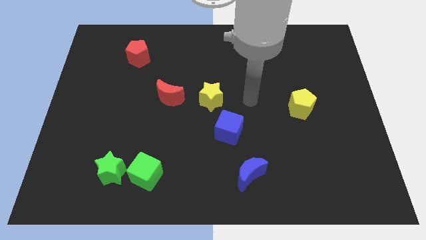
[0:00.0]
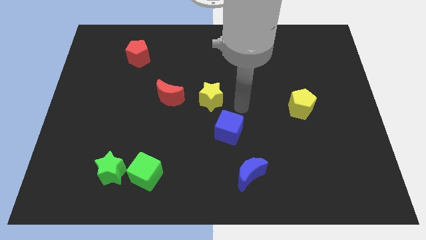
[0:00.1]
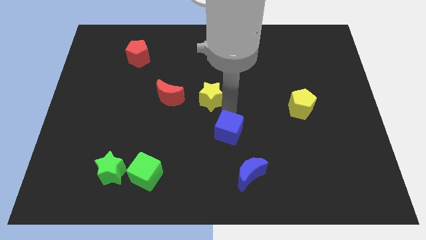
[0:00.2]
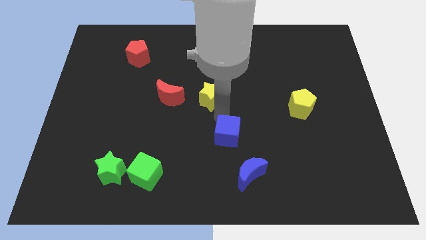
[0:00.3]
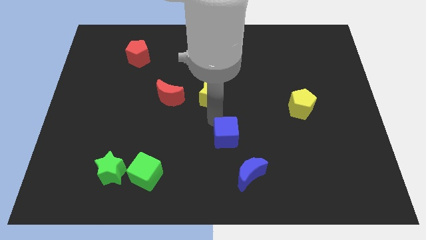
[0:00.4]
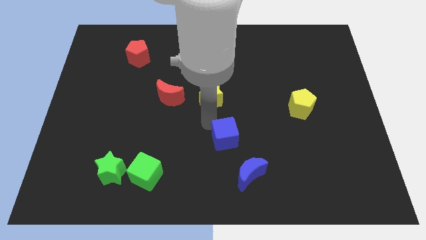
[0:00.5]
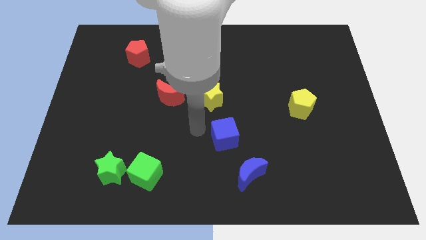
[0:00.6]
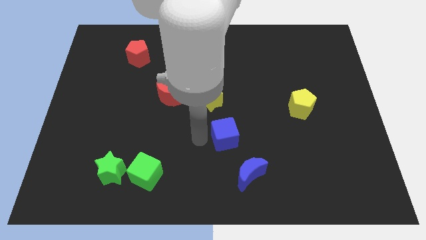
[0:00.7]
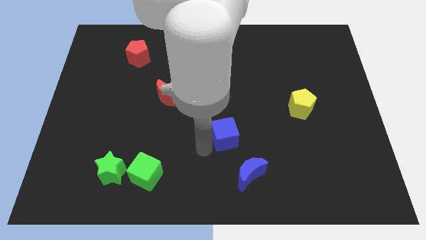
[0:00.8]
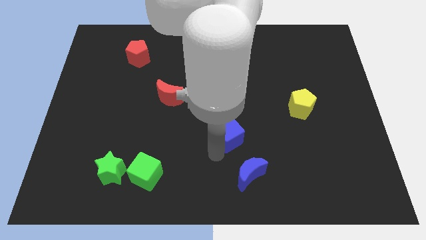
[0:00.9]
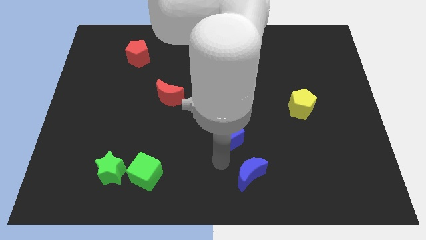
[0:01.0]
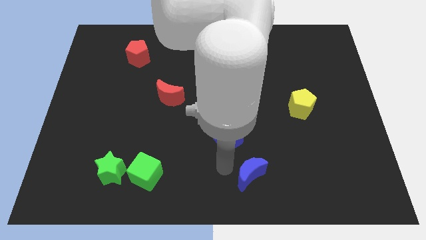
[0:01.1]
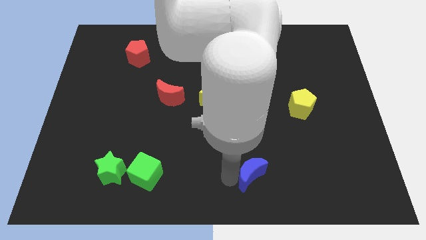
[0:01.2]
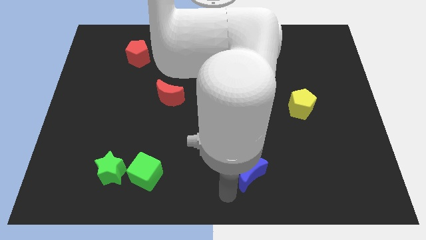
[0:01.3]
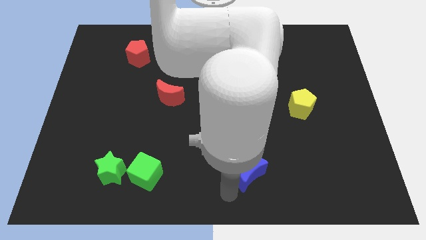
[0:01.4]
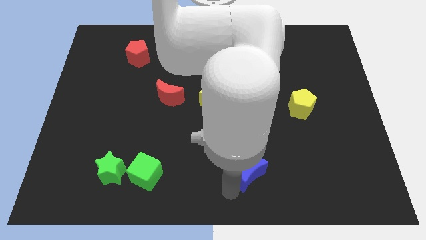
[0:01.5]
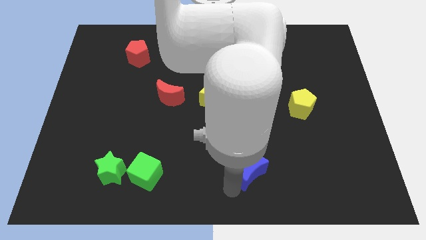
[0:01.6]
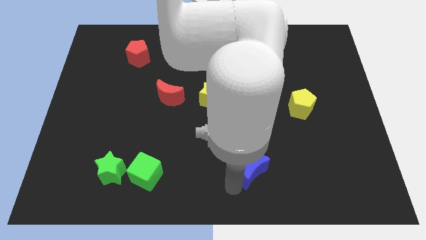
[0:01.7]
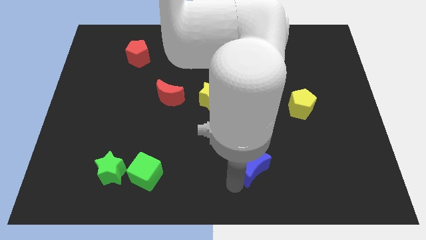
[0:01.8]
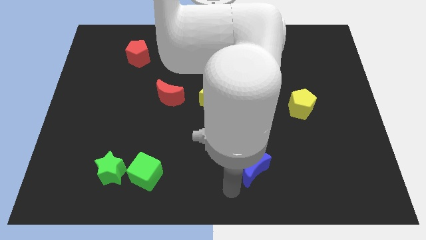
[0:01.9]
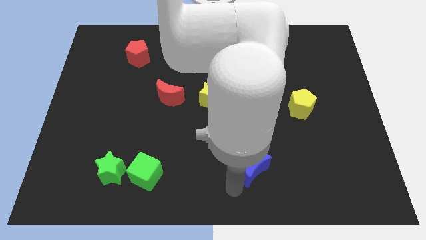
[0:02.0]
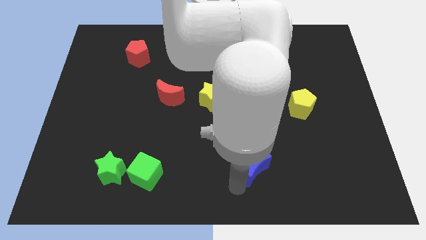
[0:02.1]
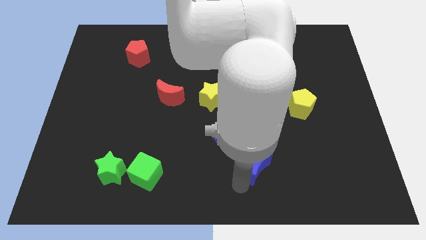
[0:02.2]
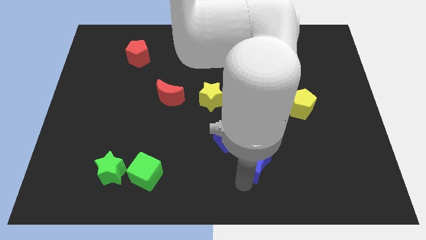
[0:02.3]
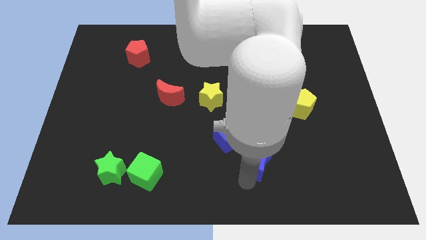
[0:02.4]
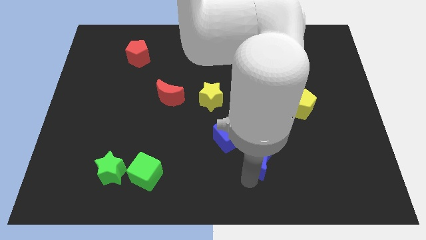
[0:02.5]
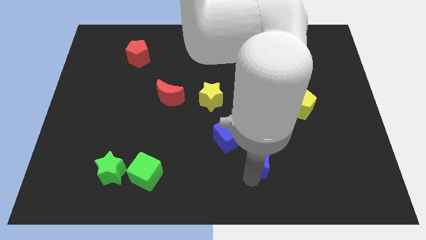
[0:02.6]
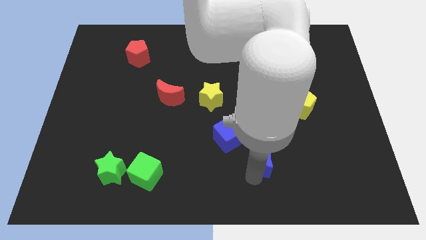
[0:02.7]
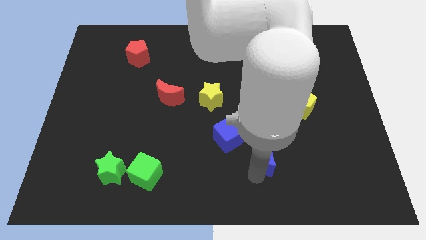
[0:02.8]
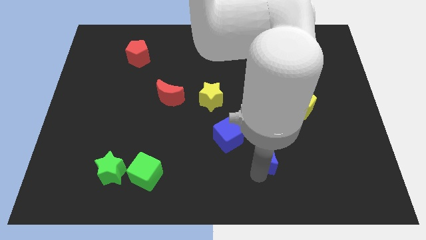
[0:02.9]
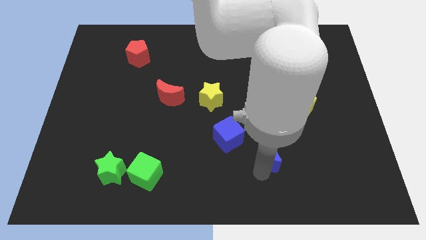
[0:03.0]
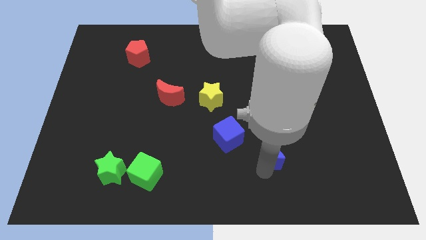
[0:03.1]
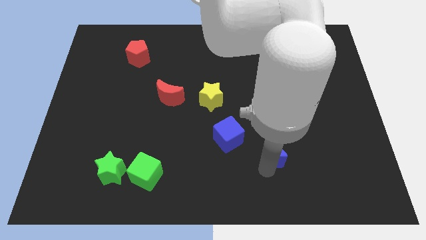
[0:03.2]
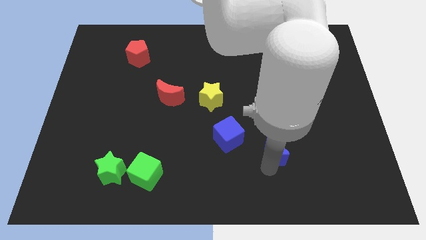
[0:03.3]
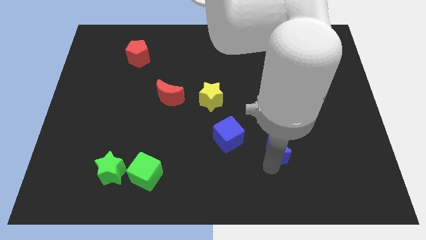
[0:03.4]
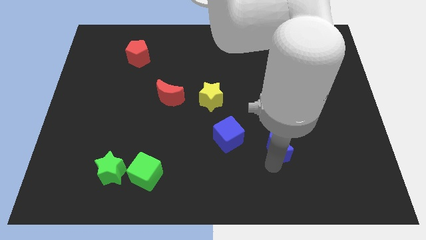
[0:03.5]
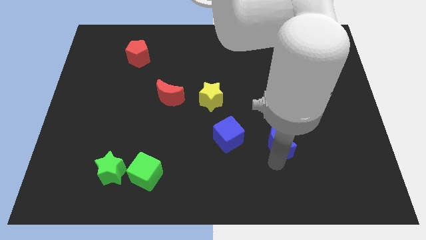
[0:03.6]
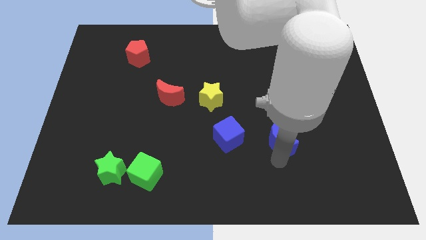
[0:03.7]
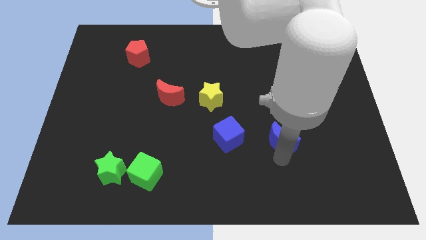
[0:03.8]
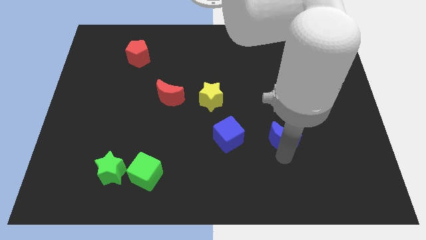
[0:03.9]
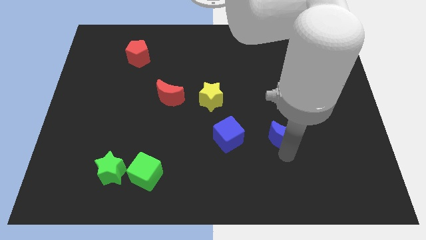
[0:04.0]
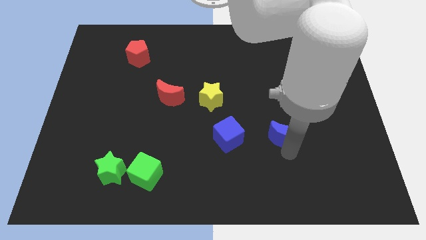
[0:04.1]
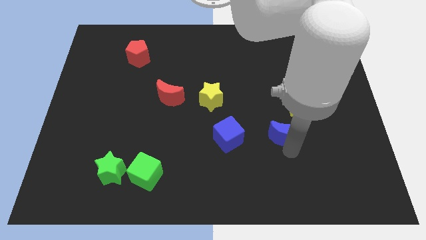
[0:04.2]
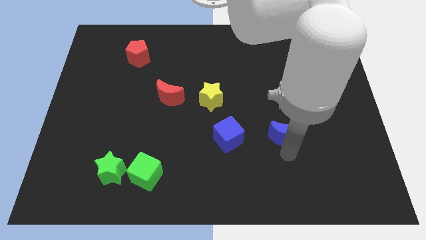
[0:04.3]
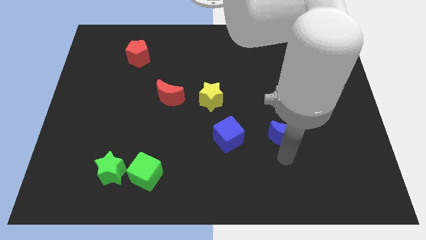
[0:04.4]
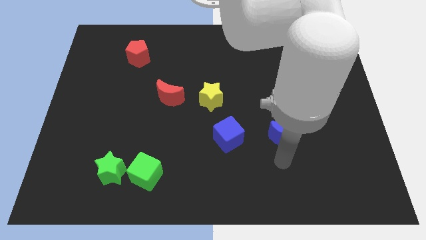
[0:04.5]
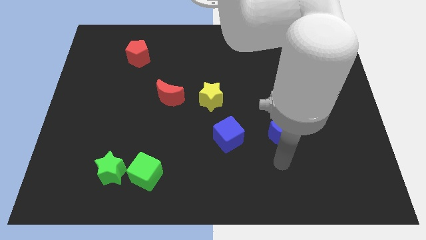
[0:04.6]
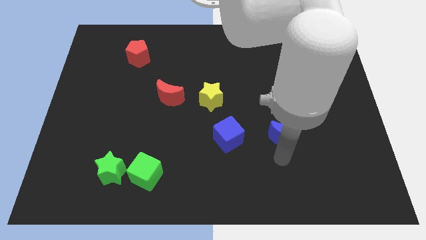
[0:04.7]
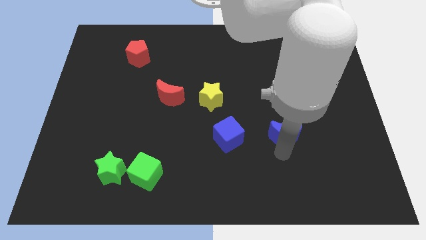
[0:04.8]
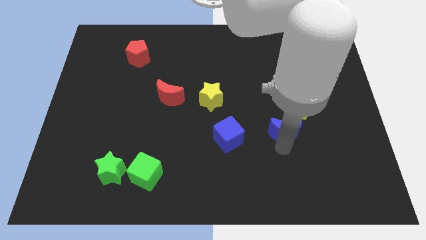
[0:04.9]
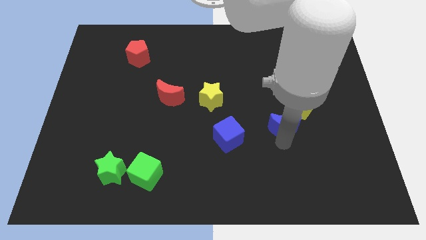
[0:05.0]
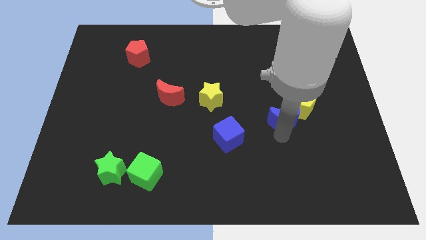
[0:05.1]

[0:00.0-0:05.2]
slide the blue moon to the yellow pentagon

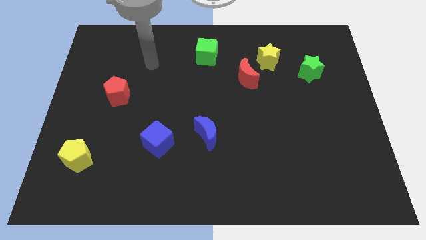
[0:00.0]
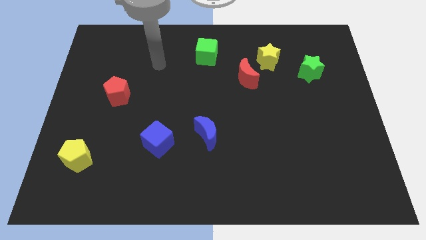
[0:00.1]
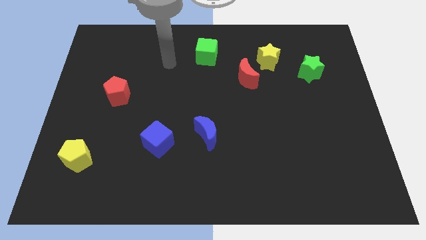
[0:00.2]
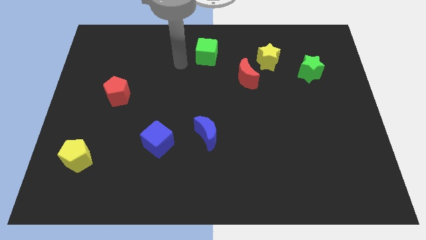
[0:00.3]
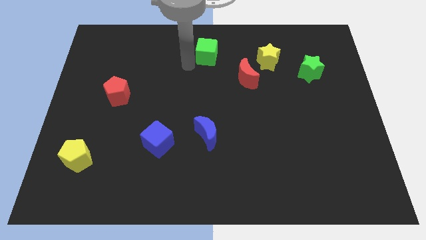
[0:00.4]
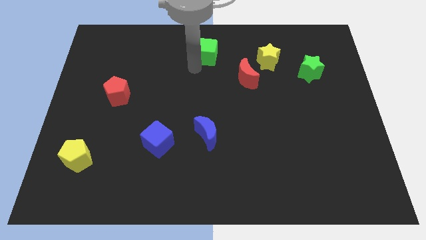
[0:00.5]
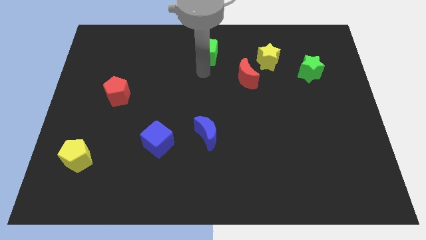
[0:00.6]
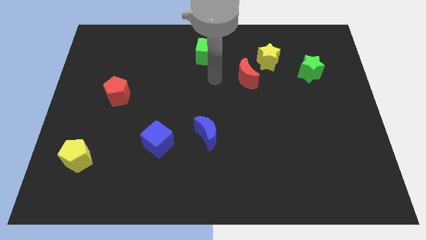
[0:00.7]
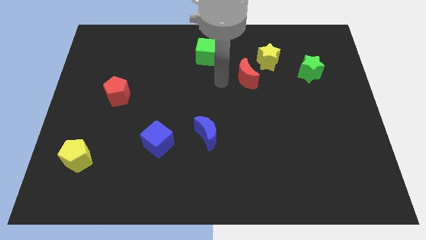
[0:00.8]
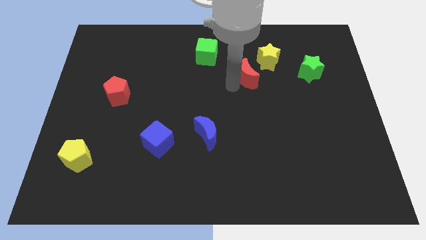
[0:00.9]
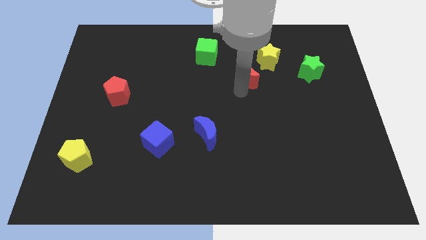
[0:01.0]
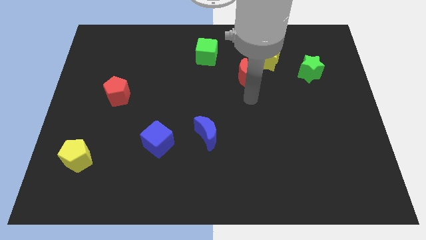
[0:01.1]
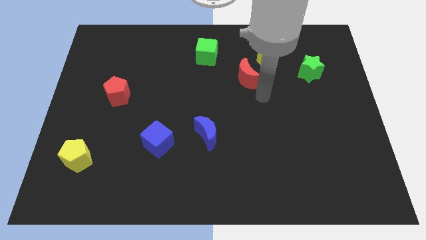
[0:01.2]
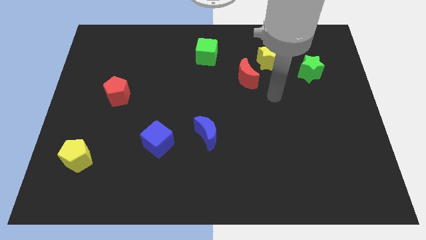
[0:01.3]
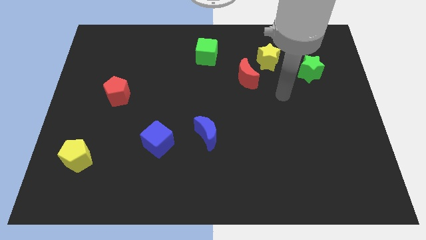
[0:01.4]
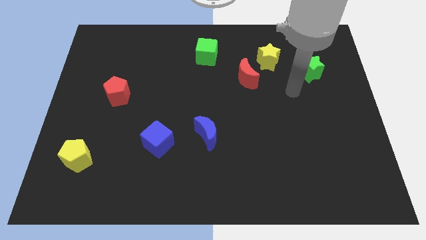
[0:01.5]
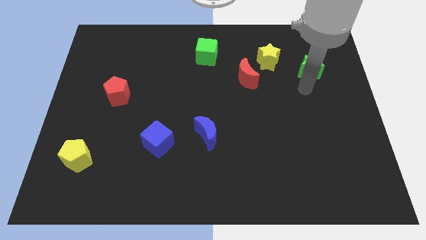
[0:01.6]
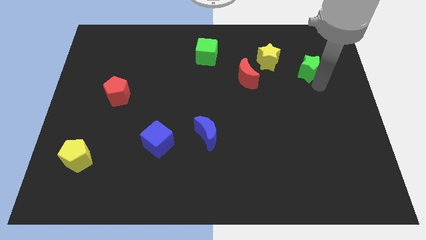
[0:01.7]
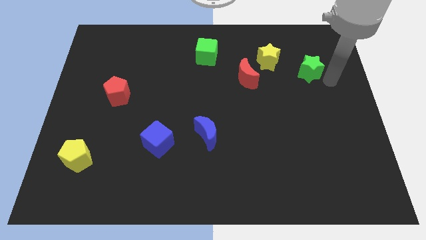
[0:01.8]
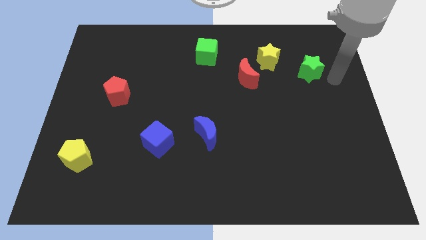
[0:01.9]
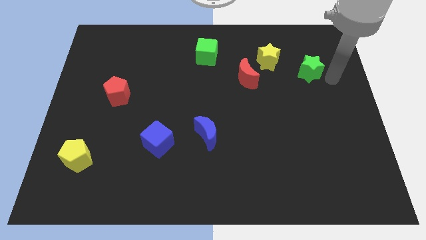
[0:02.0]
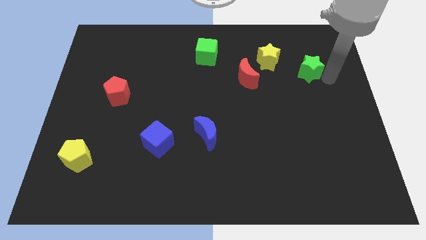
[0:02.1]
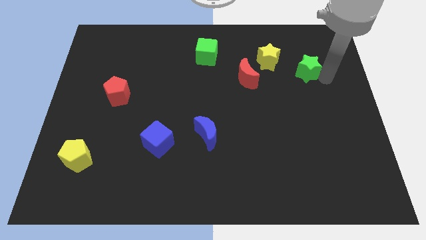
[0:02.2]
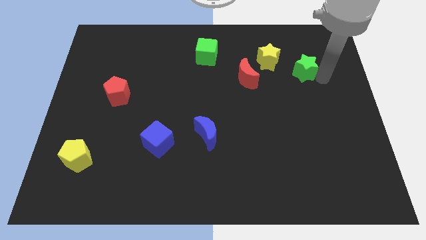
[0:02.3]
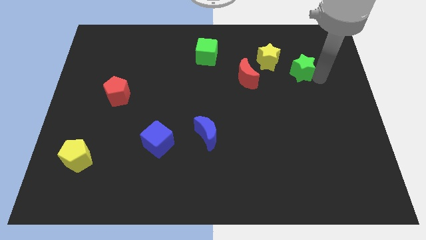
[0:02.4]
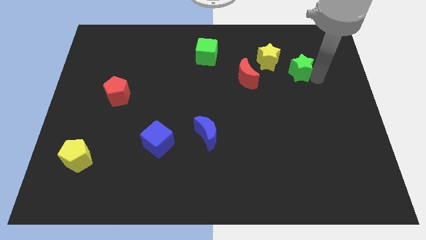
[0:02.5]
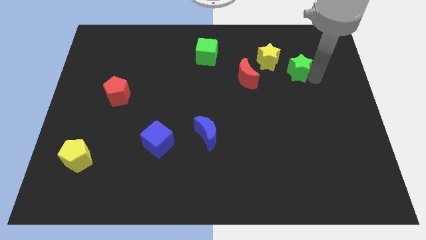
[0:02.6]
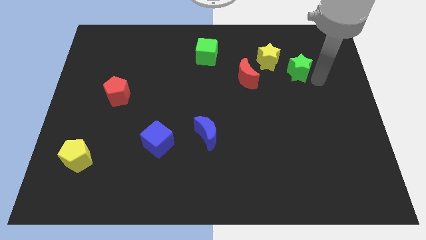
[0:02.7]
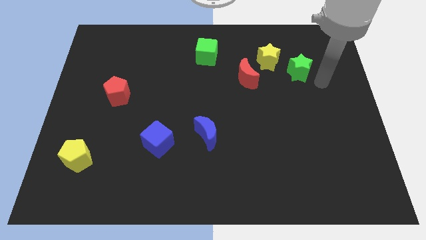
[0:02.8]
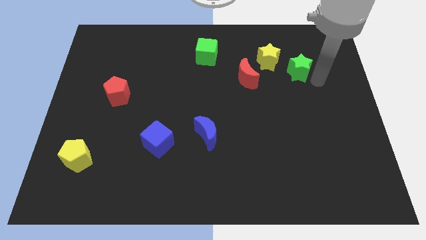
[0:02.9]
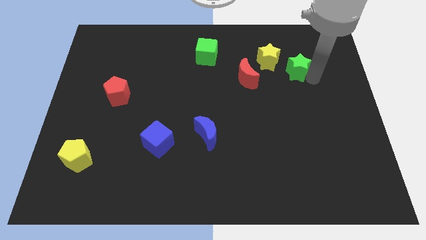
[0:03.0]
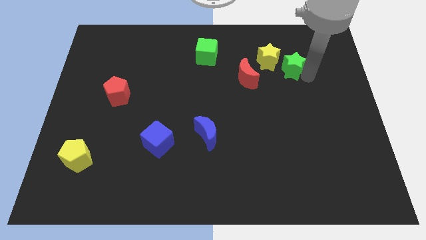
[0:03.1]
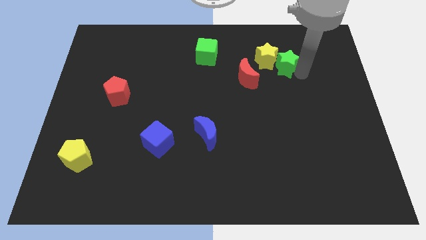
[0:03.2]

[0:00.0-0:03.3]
push the green star towards the yellow star
